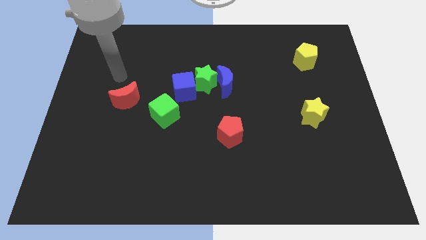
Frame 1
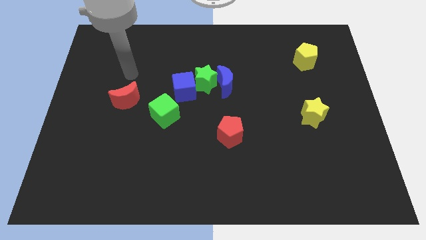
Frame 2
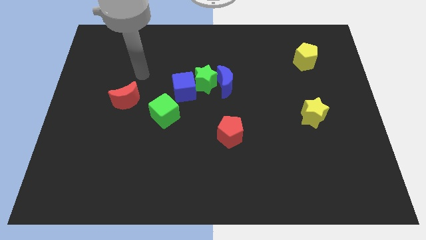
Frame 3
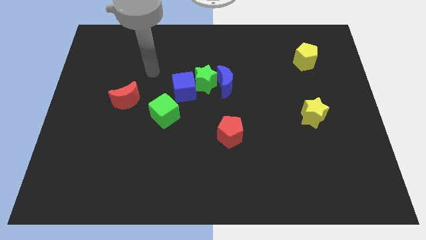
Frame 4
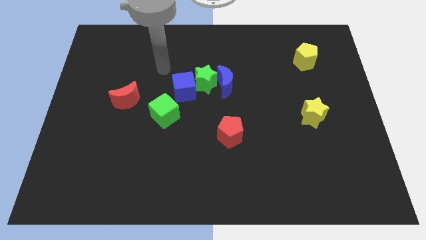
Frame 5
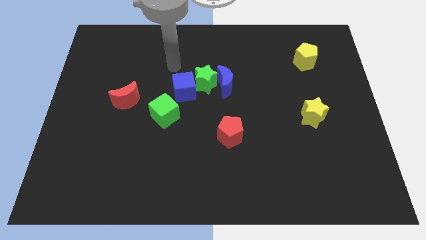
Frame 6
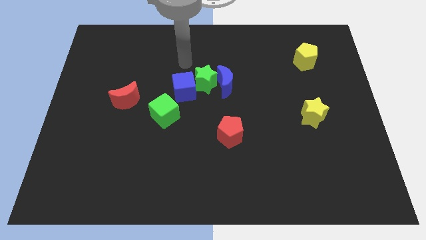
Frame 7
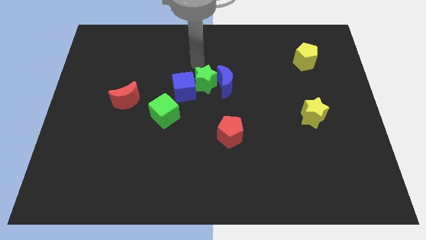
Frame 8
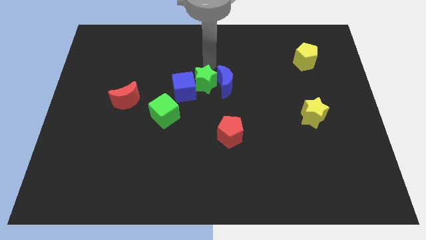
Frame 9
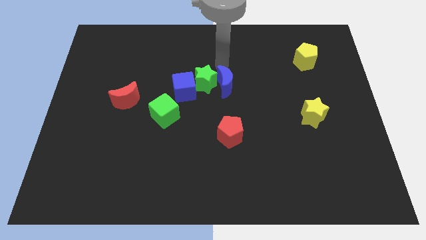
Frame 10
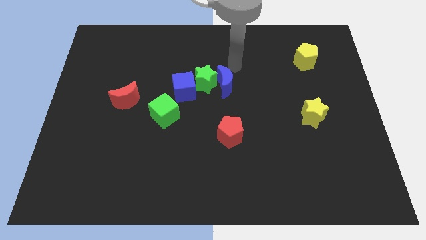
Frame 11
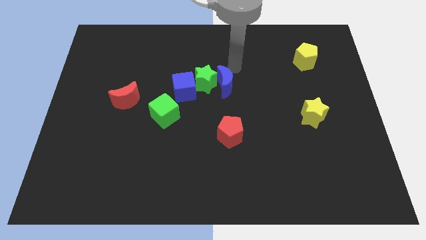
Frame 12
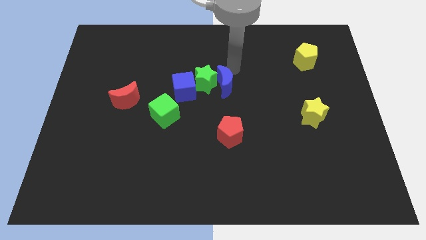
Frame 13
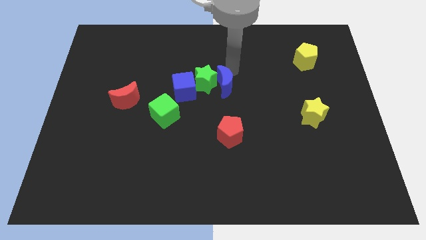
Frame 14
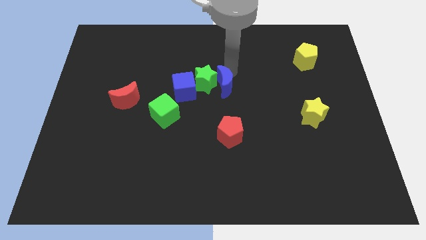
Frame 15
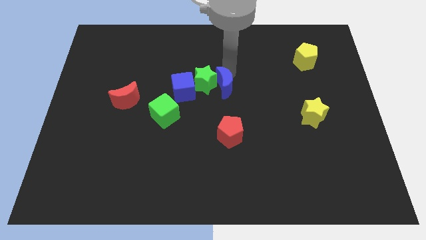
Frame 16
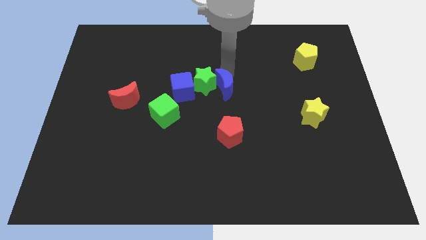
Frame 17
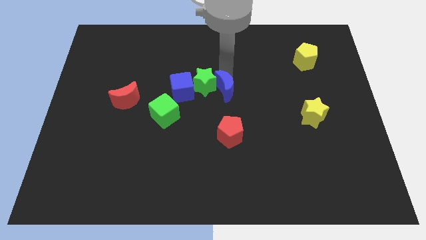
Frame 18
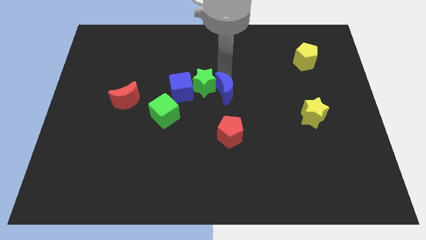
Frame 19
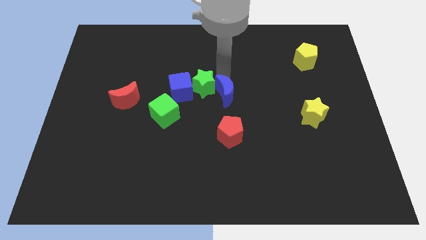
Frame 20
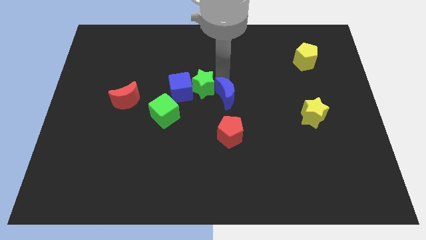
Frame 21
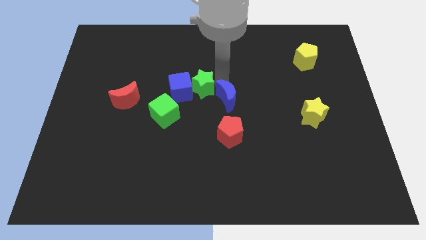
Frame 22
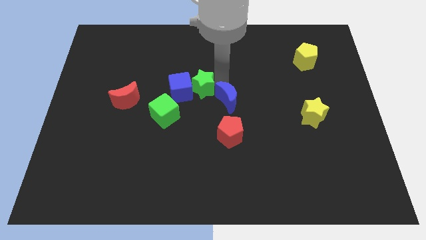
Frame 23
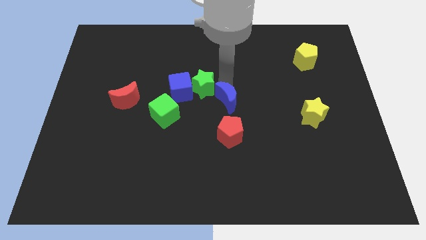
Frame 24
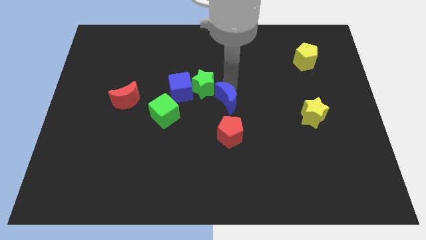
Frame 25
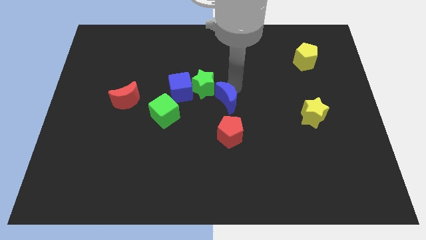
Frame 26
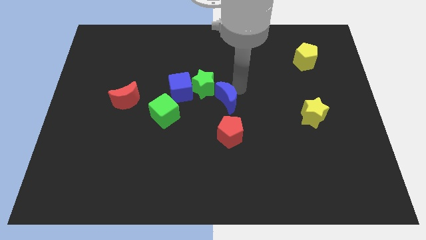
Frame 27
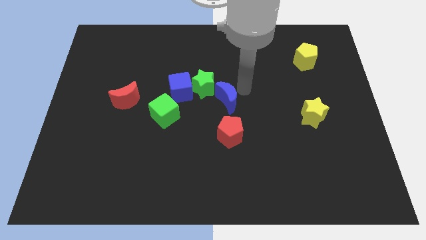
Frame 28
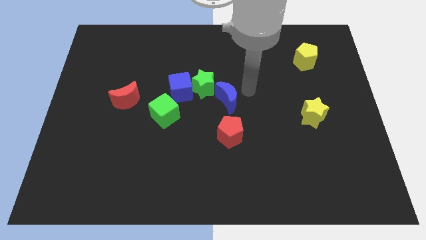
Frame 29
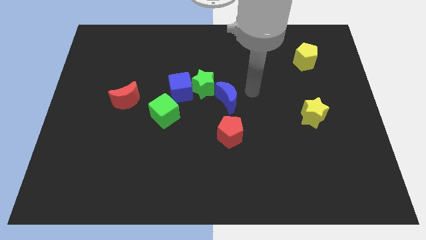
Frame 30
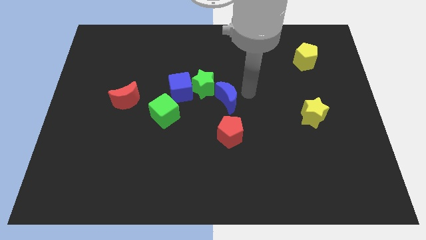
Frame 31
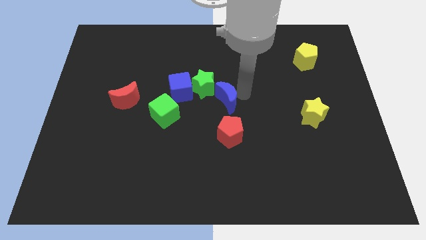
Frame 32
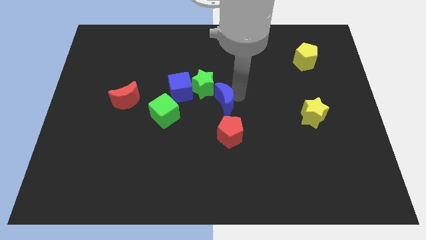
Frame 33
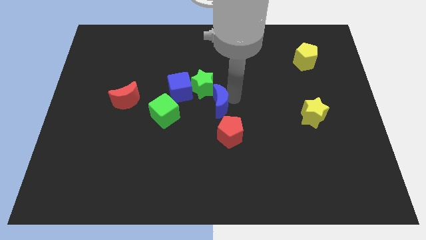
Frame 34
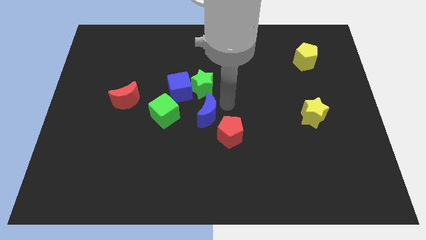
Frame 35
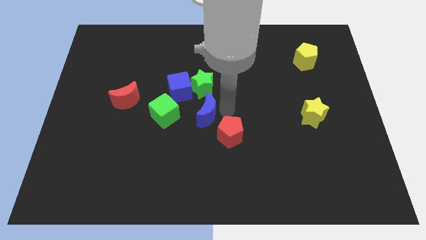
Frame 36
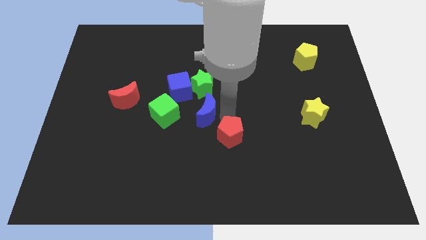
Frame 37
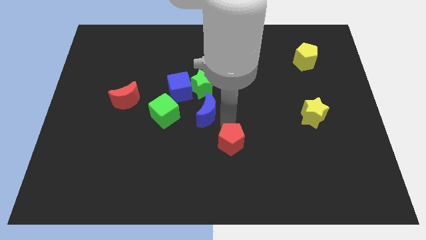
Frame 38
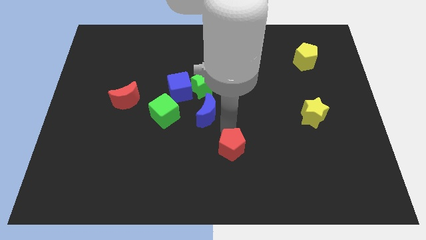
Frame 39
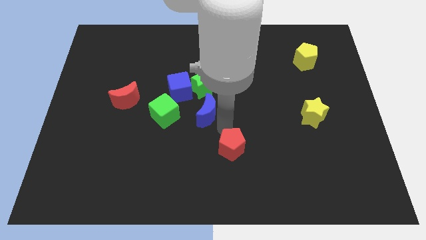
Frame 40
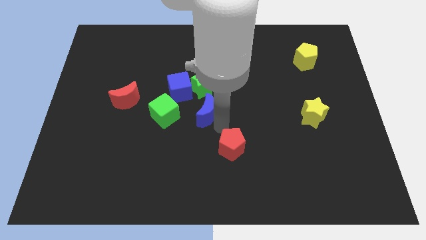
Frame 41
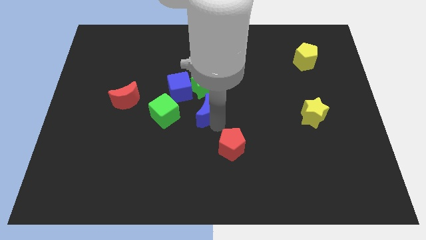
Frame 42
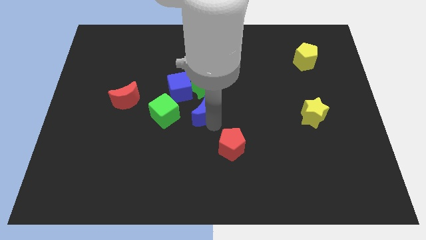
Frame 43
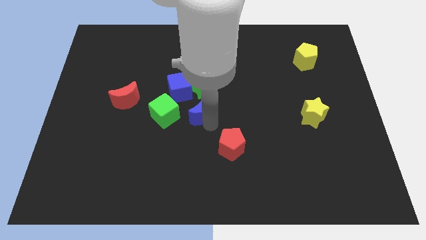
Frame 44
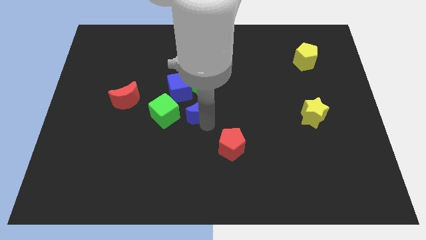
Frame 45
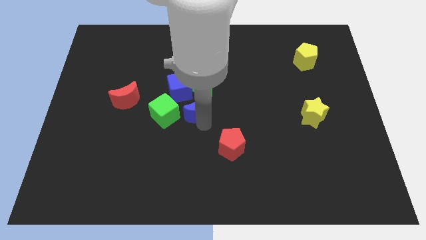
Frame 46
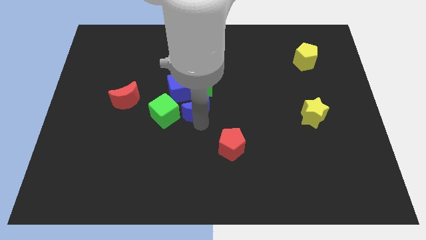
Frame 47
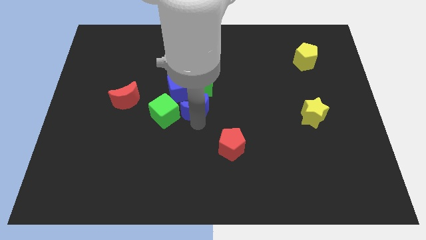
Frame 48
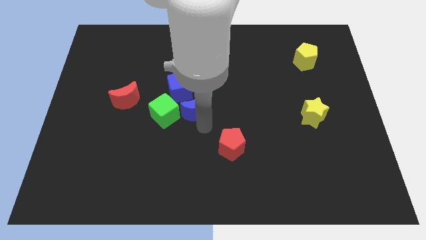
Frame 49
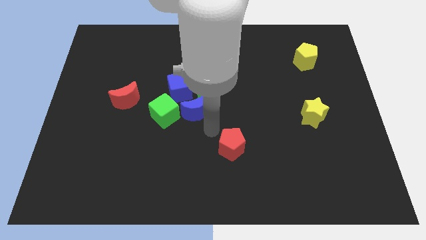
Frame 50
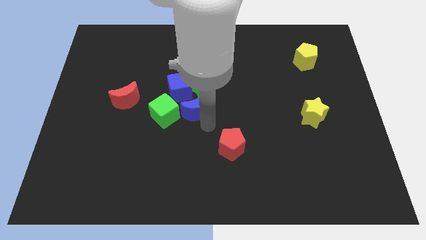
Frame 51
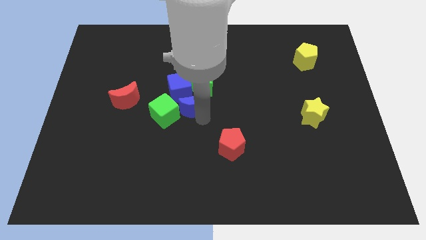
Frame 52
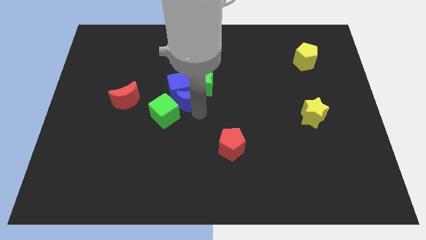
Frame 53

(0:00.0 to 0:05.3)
put the blue moon close to the blue cube

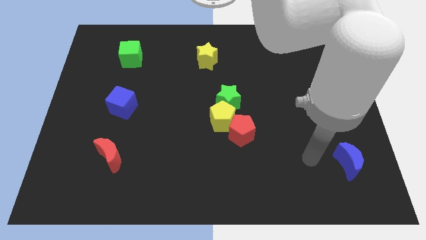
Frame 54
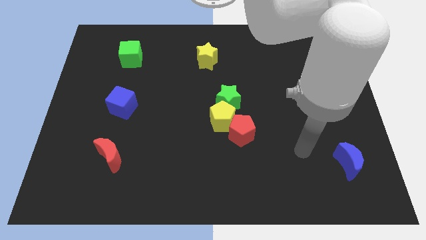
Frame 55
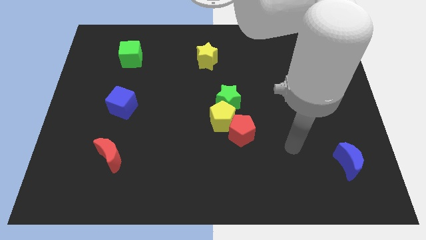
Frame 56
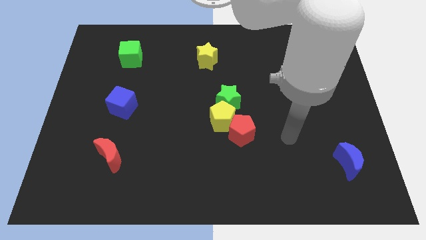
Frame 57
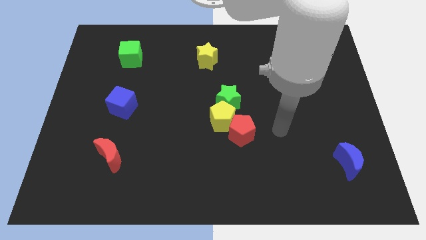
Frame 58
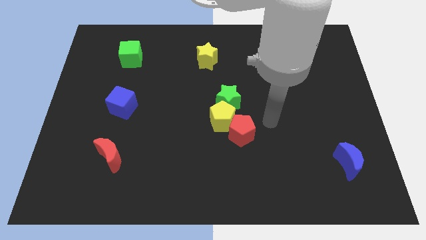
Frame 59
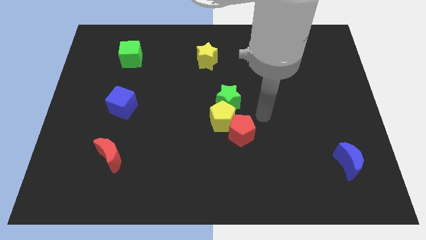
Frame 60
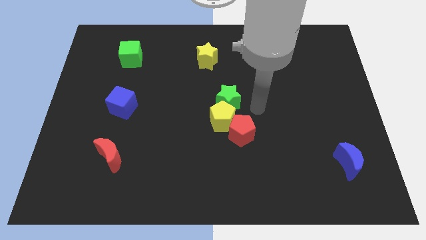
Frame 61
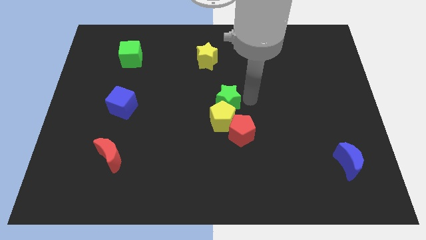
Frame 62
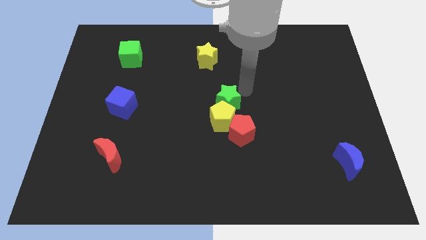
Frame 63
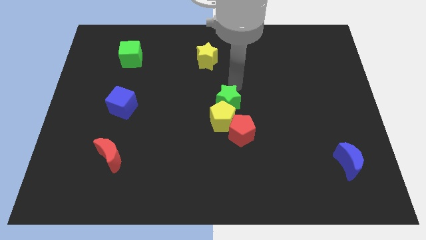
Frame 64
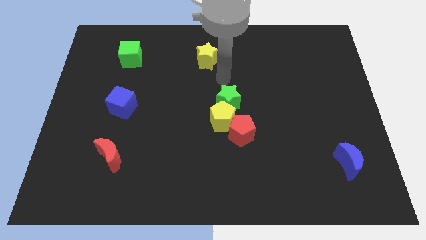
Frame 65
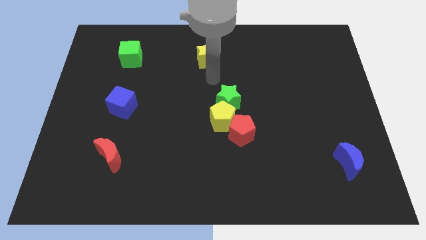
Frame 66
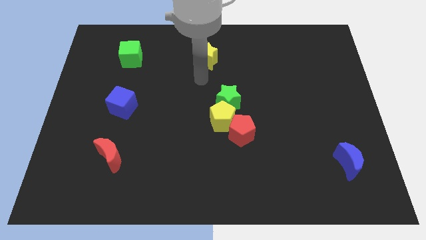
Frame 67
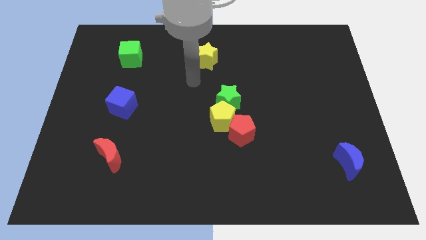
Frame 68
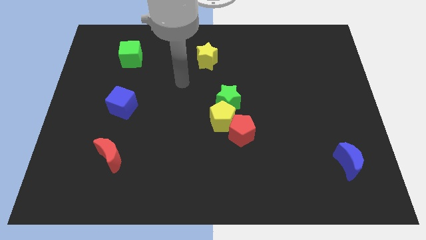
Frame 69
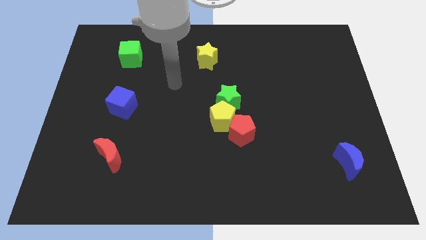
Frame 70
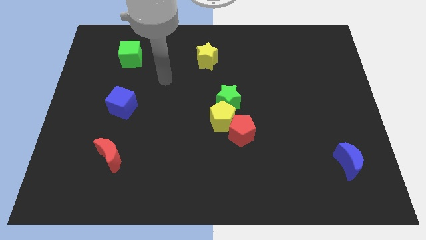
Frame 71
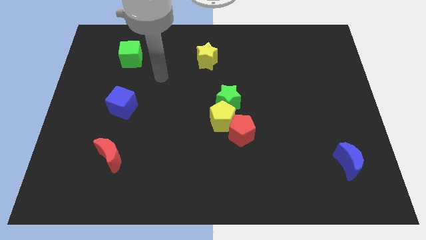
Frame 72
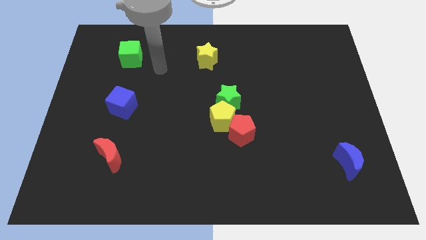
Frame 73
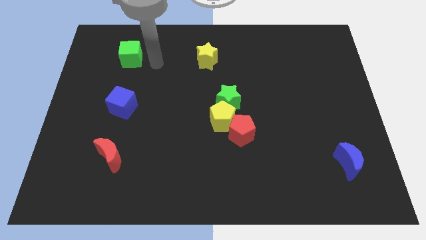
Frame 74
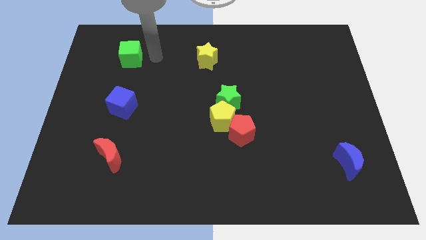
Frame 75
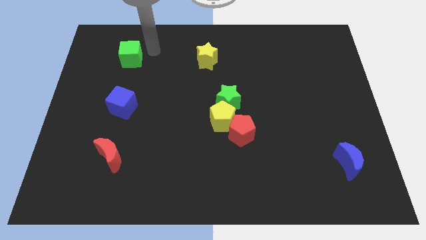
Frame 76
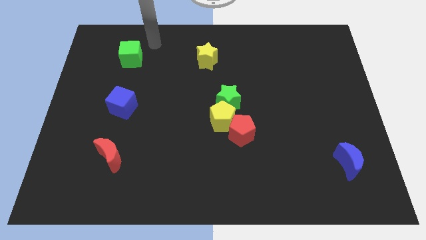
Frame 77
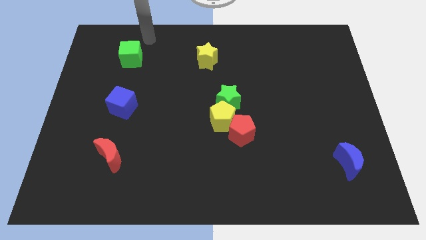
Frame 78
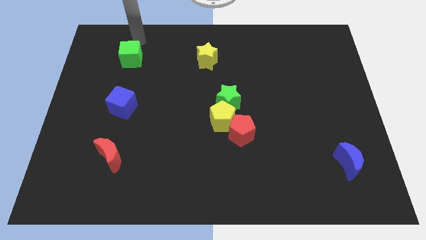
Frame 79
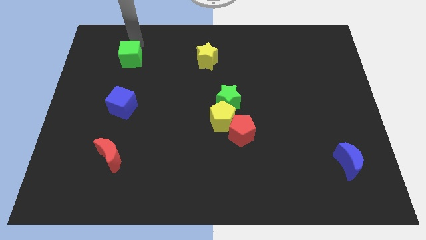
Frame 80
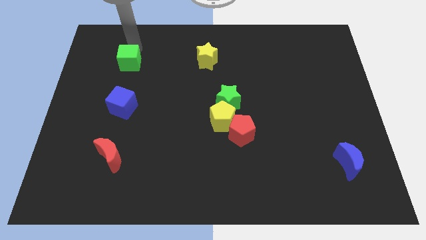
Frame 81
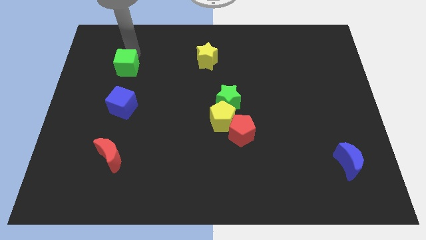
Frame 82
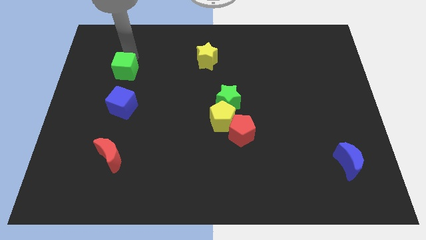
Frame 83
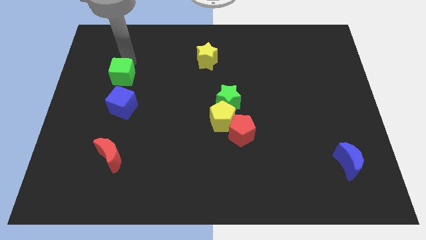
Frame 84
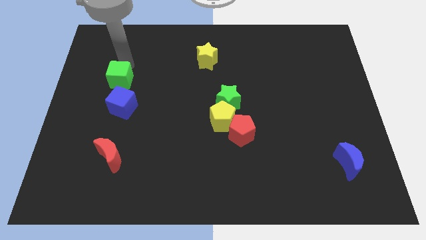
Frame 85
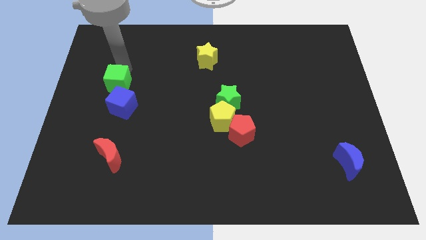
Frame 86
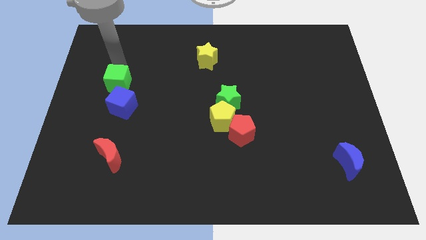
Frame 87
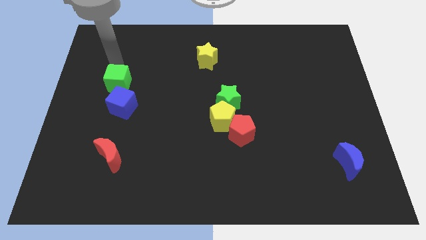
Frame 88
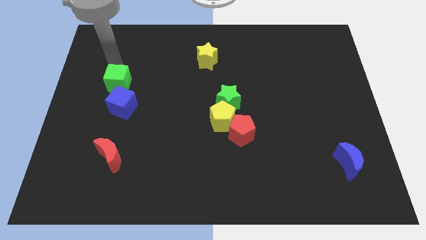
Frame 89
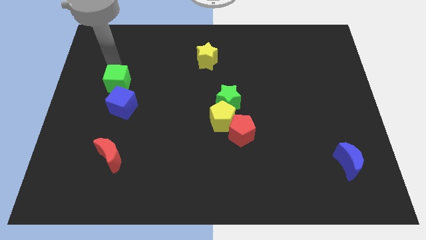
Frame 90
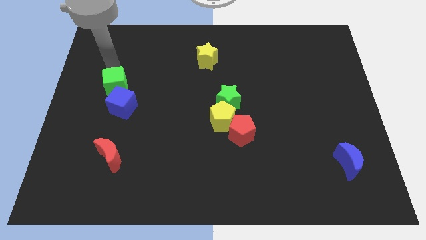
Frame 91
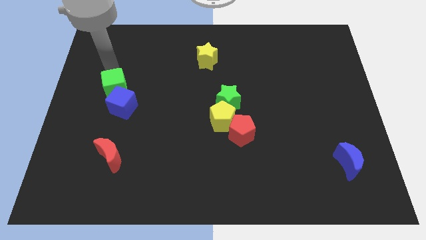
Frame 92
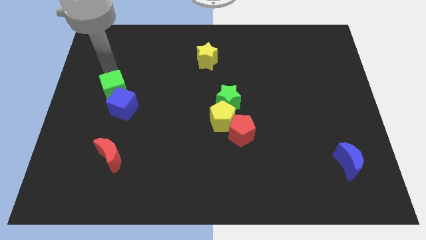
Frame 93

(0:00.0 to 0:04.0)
move the green cube towards the blue cube
